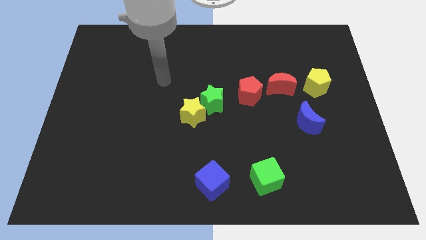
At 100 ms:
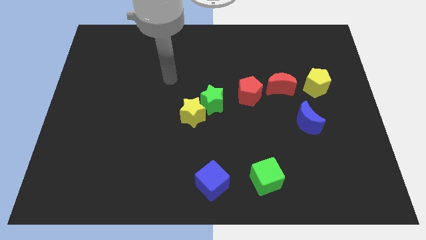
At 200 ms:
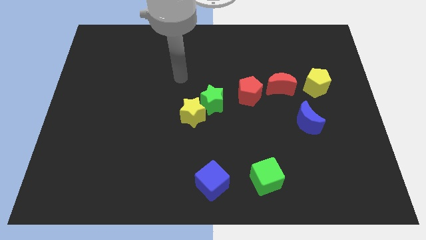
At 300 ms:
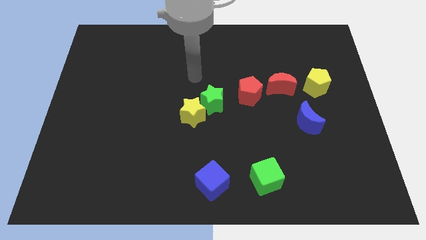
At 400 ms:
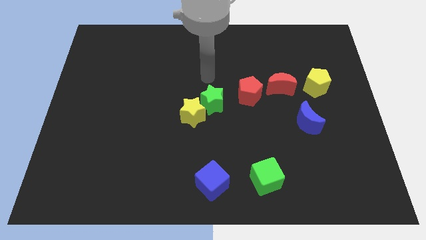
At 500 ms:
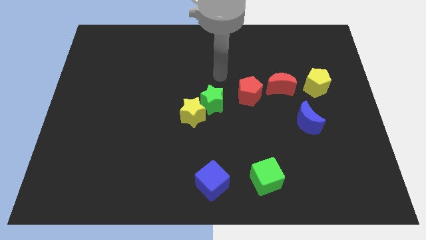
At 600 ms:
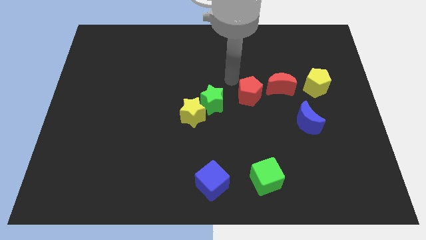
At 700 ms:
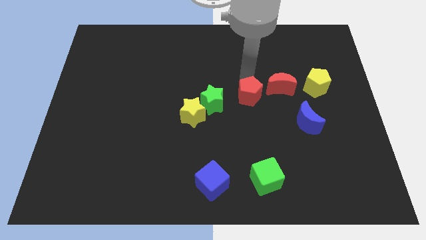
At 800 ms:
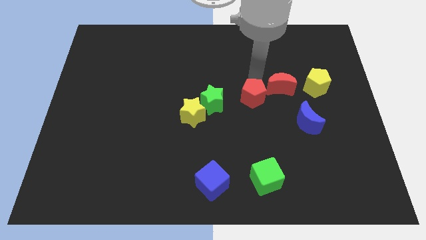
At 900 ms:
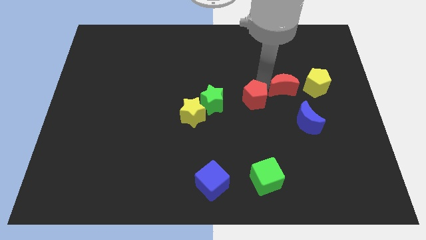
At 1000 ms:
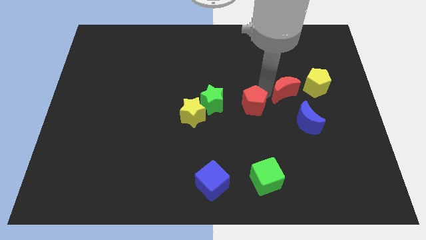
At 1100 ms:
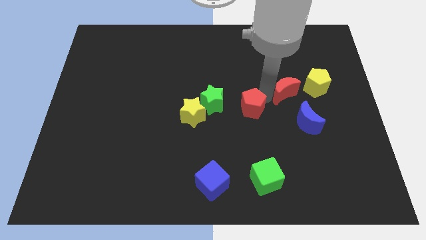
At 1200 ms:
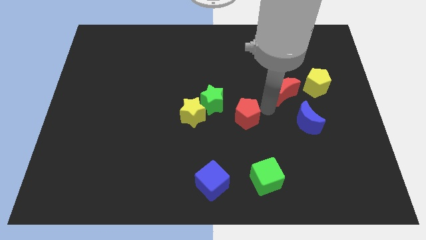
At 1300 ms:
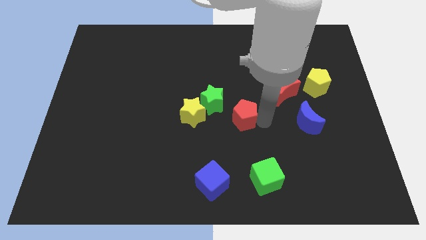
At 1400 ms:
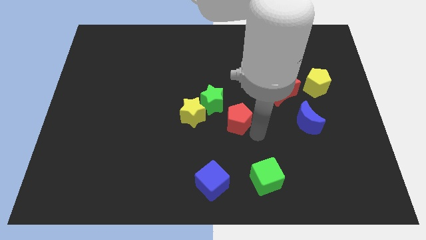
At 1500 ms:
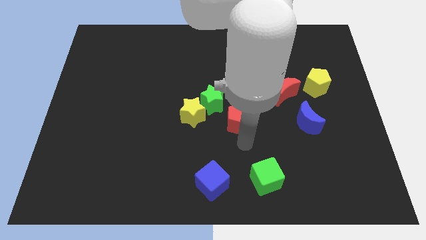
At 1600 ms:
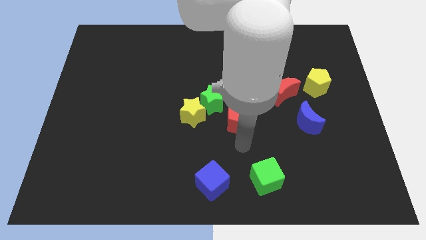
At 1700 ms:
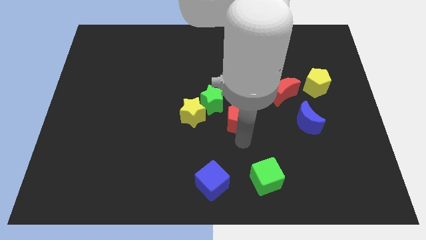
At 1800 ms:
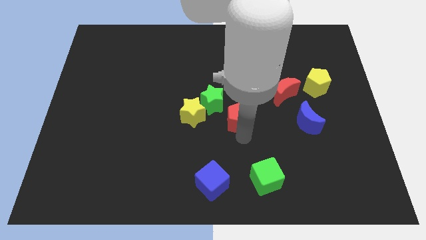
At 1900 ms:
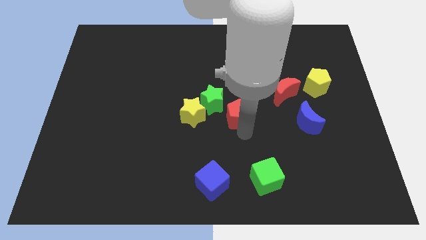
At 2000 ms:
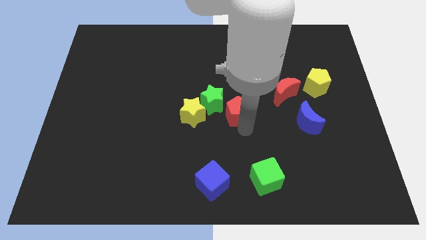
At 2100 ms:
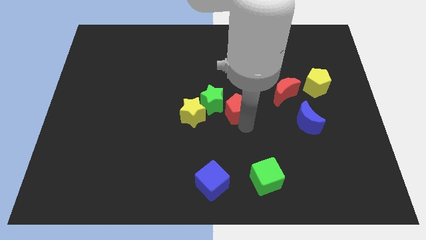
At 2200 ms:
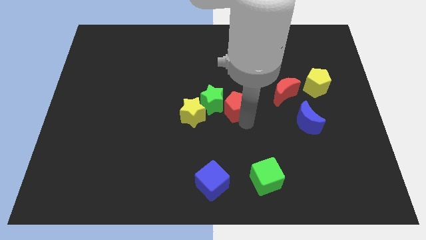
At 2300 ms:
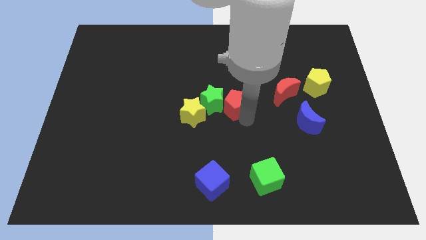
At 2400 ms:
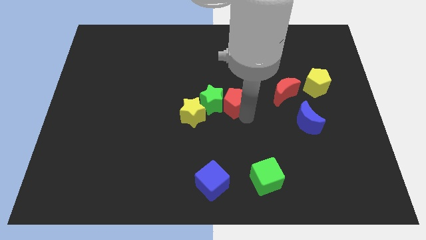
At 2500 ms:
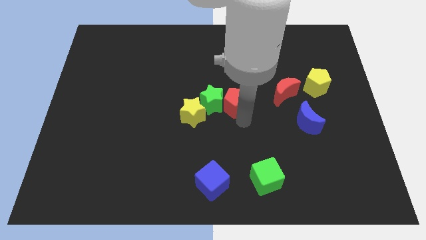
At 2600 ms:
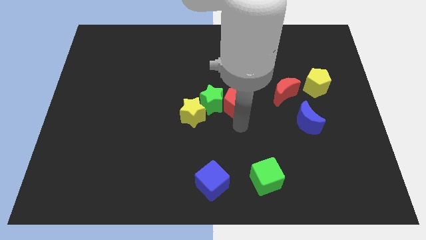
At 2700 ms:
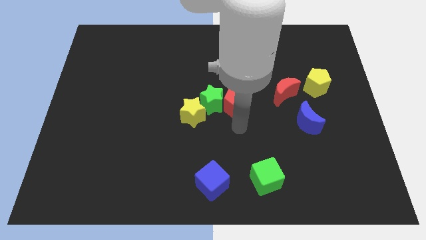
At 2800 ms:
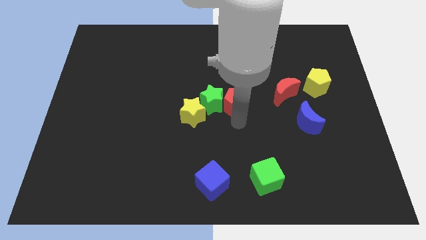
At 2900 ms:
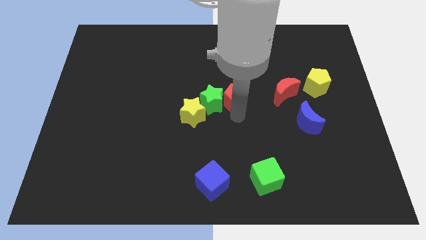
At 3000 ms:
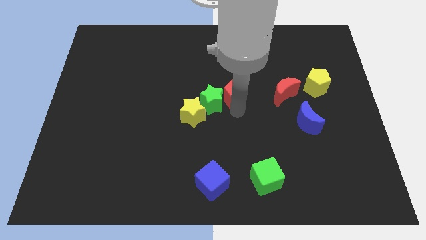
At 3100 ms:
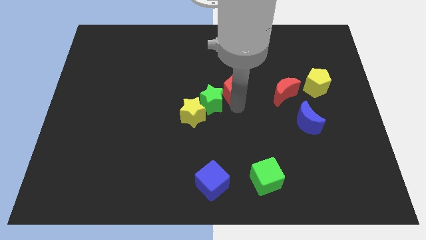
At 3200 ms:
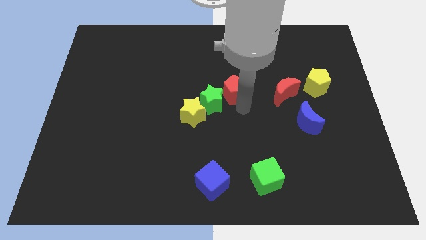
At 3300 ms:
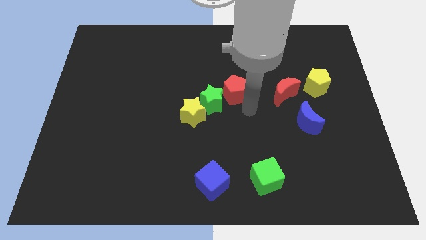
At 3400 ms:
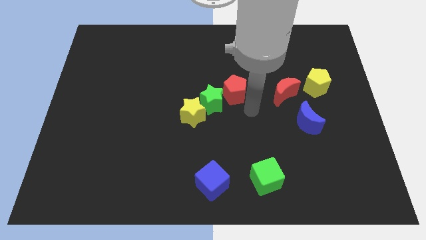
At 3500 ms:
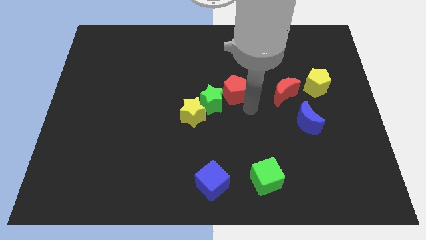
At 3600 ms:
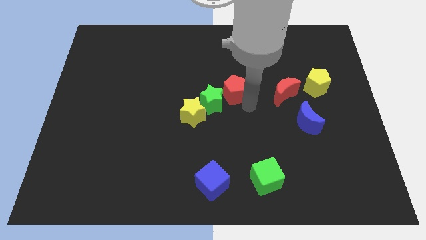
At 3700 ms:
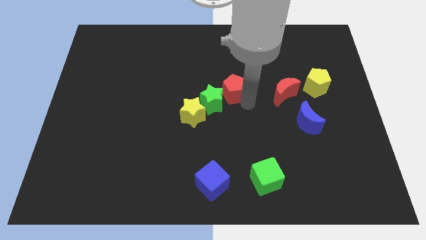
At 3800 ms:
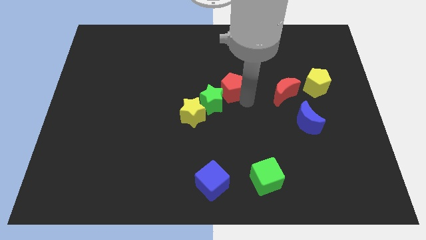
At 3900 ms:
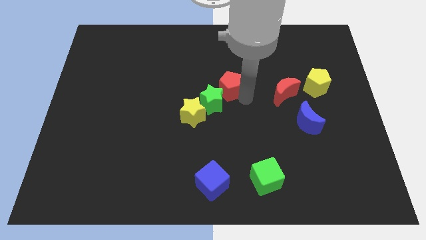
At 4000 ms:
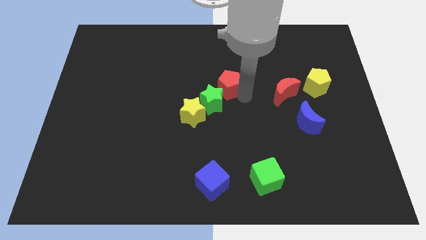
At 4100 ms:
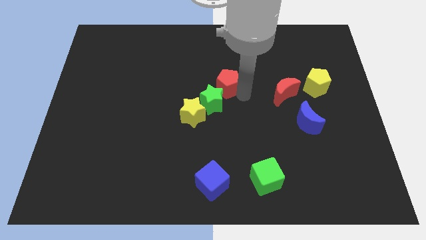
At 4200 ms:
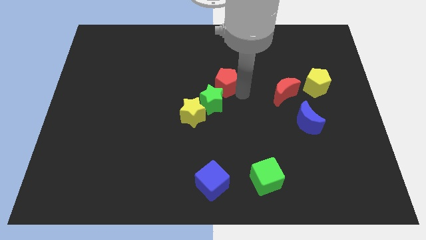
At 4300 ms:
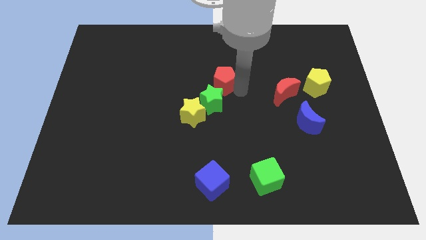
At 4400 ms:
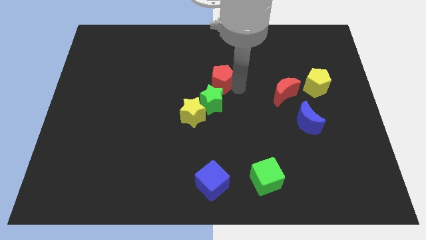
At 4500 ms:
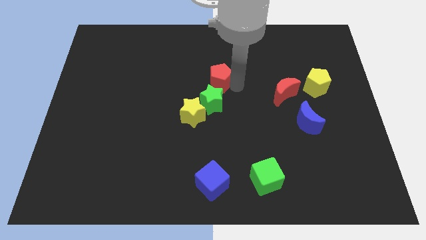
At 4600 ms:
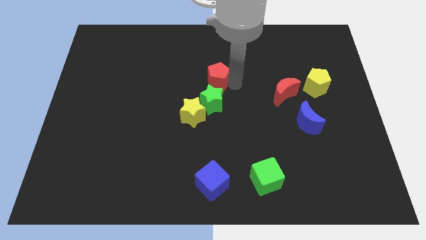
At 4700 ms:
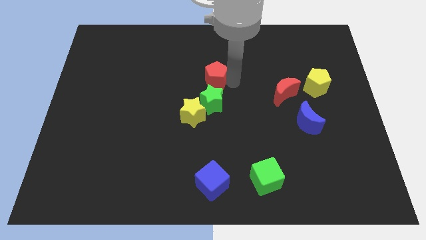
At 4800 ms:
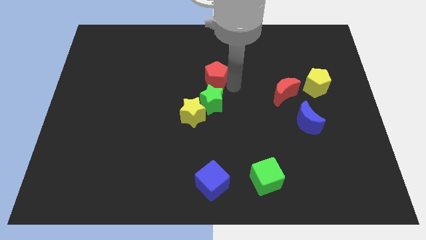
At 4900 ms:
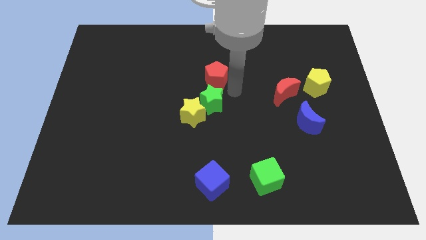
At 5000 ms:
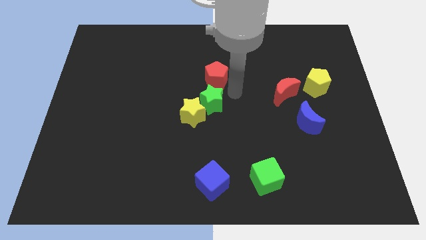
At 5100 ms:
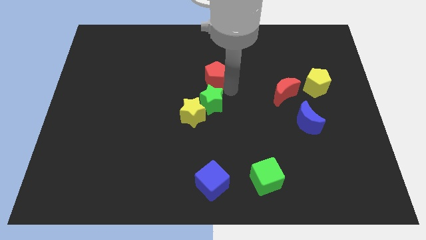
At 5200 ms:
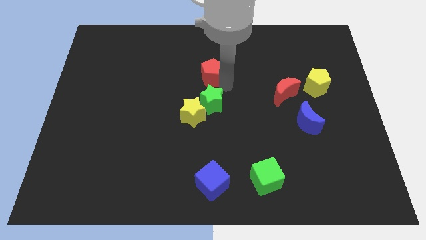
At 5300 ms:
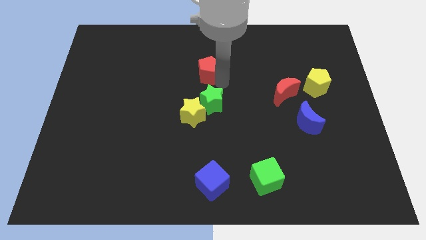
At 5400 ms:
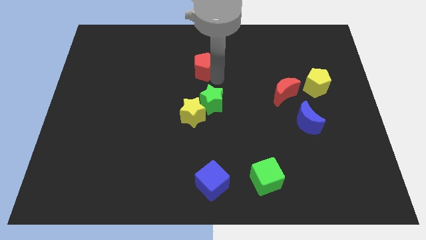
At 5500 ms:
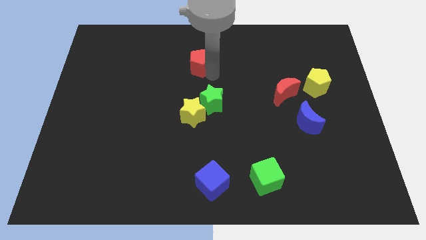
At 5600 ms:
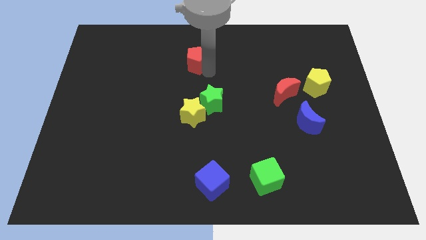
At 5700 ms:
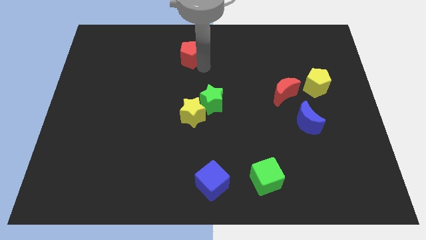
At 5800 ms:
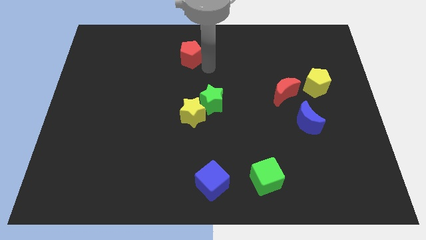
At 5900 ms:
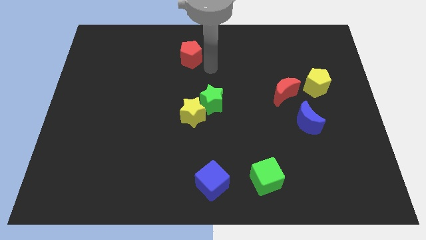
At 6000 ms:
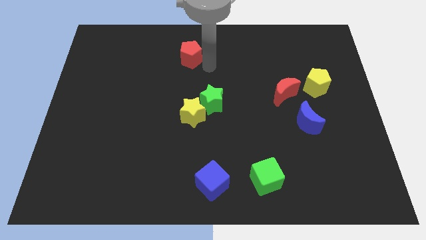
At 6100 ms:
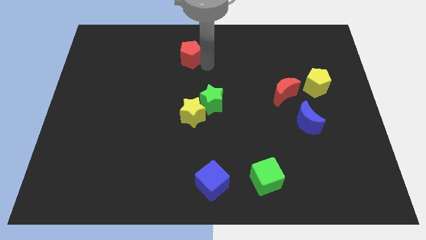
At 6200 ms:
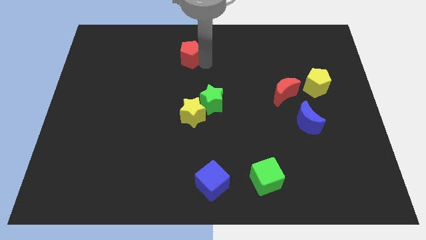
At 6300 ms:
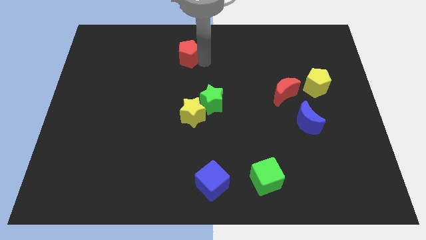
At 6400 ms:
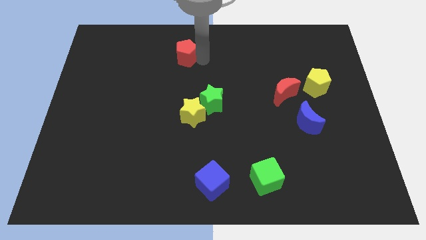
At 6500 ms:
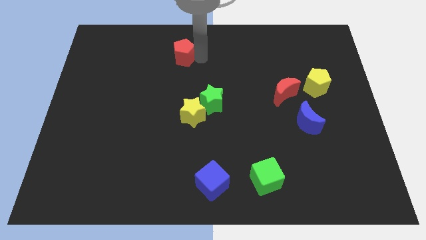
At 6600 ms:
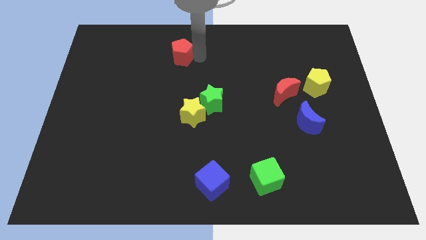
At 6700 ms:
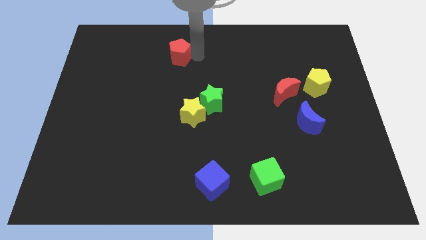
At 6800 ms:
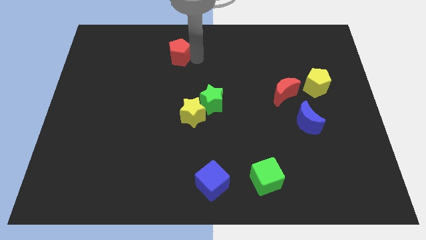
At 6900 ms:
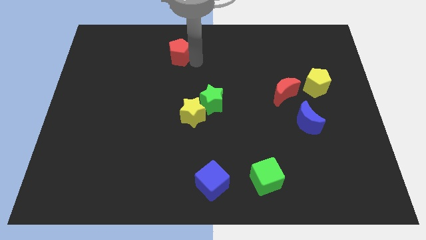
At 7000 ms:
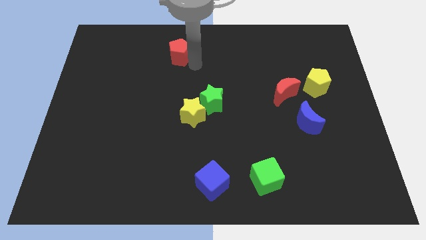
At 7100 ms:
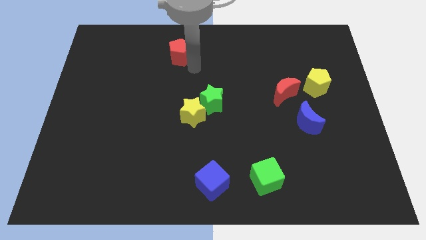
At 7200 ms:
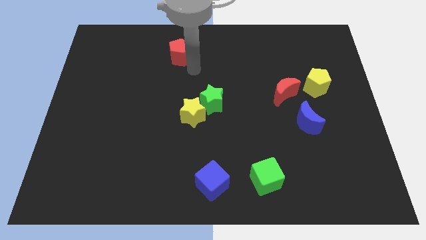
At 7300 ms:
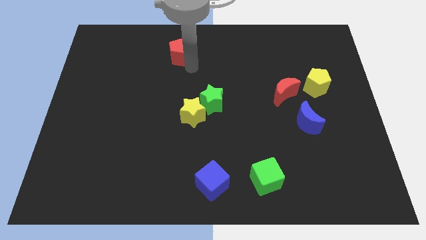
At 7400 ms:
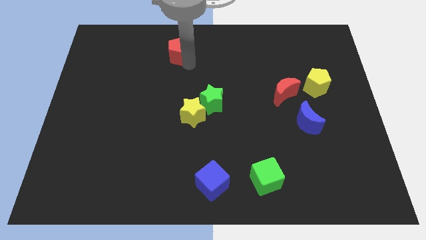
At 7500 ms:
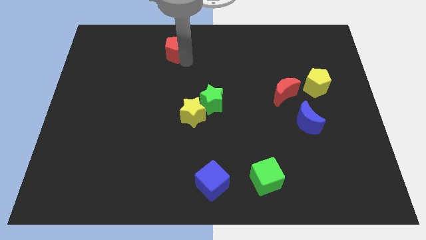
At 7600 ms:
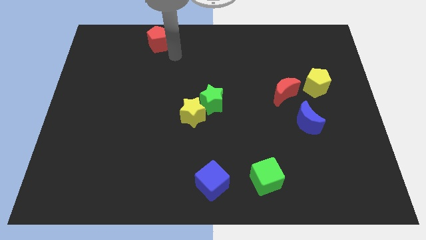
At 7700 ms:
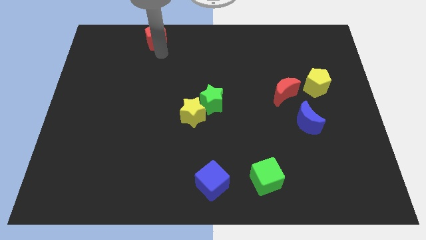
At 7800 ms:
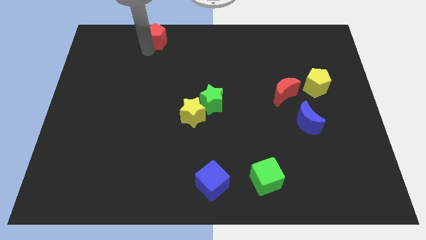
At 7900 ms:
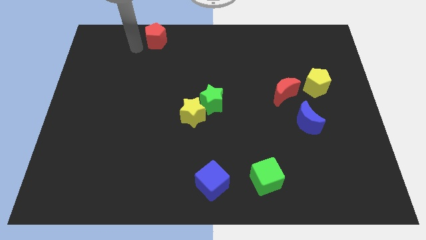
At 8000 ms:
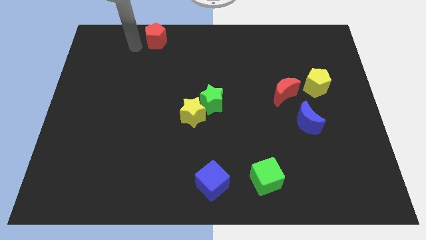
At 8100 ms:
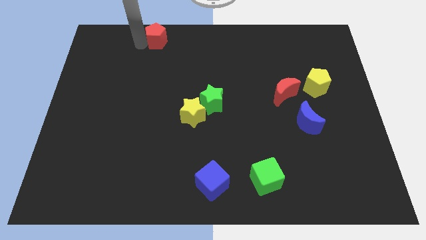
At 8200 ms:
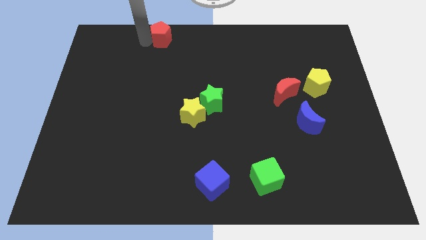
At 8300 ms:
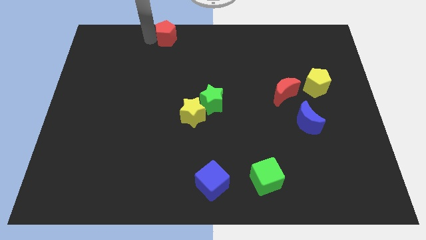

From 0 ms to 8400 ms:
put the red pentagon to the towards your base
